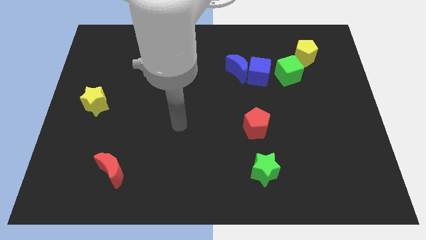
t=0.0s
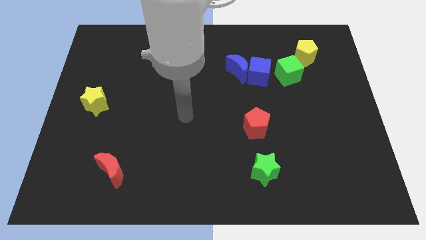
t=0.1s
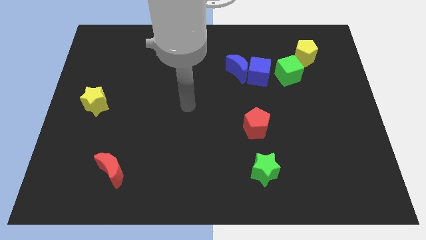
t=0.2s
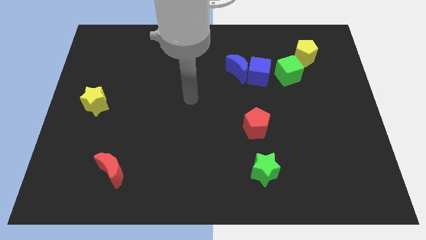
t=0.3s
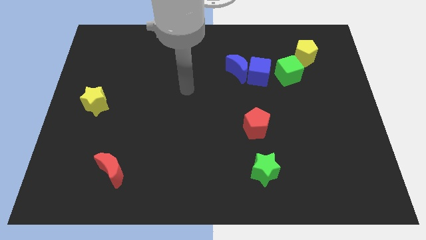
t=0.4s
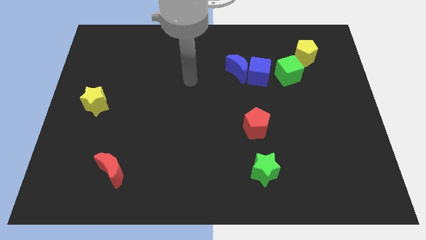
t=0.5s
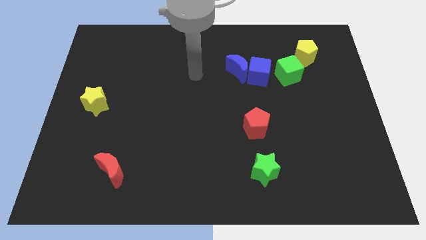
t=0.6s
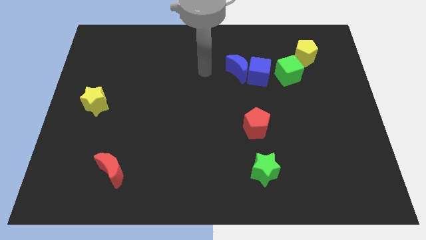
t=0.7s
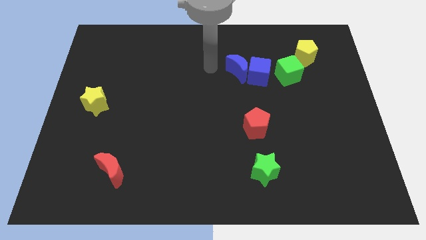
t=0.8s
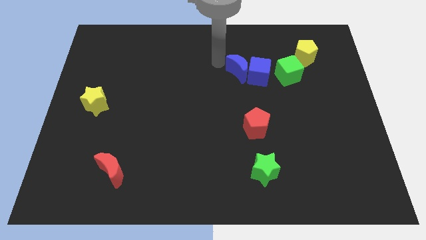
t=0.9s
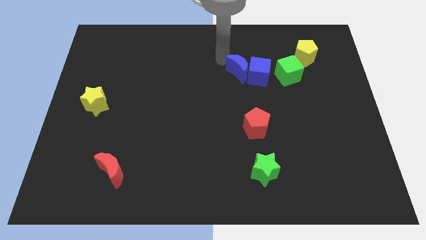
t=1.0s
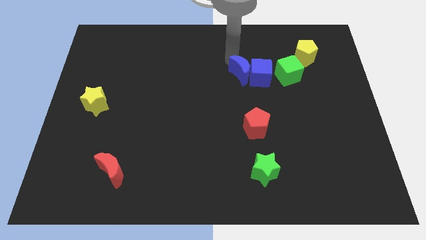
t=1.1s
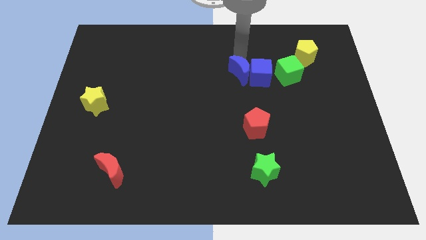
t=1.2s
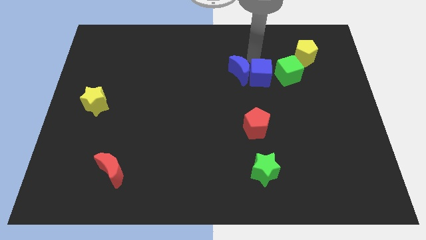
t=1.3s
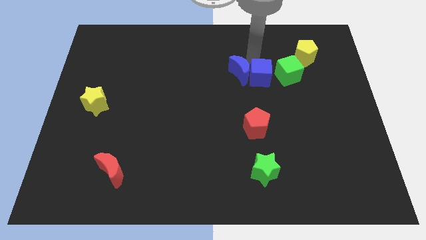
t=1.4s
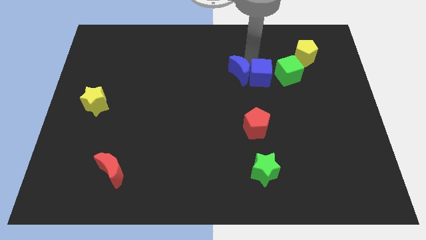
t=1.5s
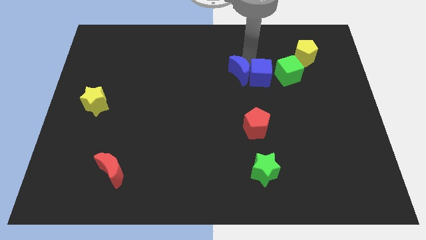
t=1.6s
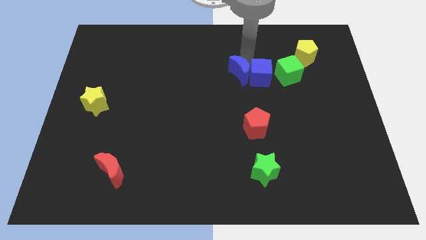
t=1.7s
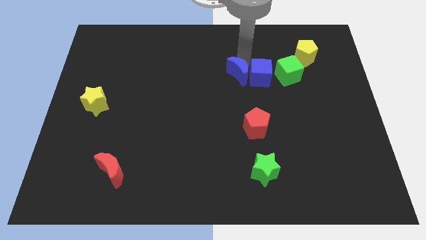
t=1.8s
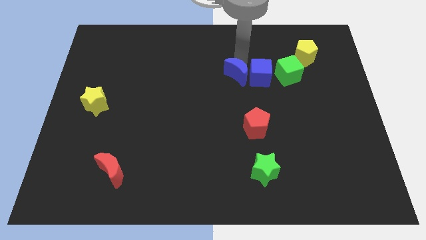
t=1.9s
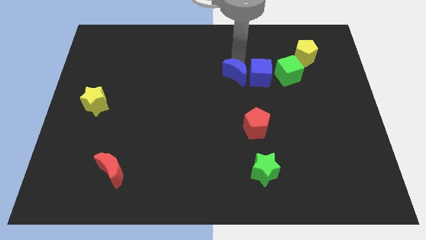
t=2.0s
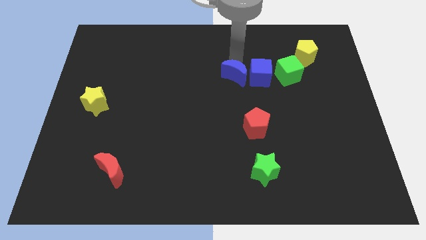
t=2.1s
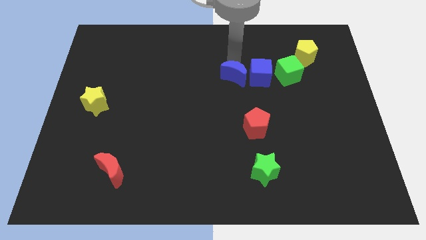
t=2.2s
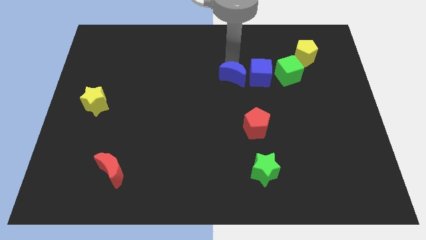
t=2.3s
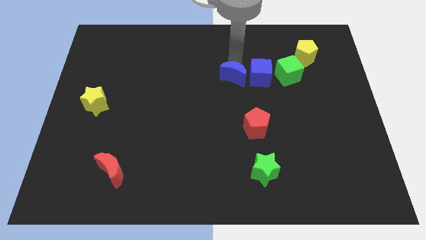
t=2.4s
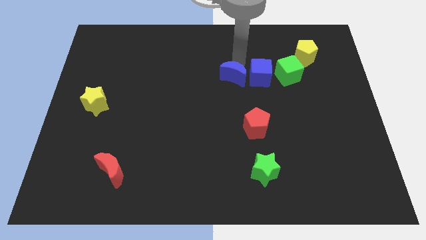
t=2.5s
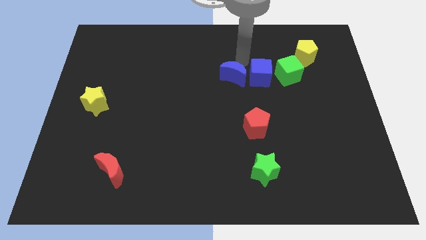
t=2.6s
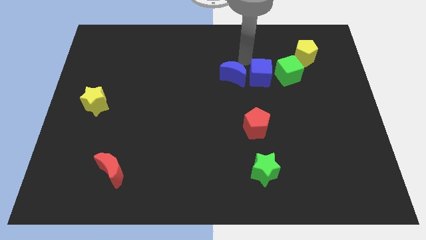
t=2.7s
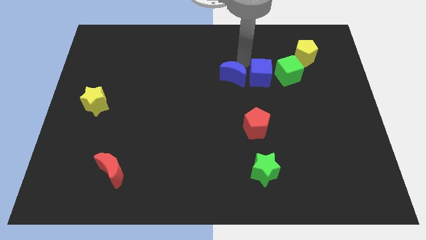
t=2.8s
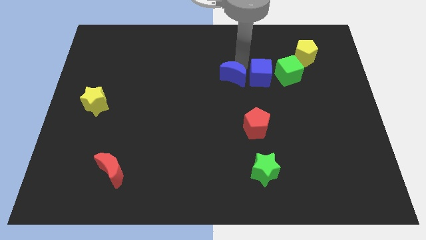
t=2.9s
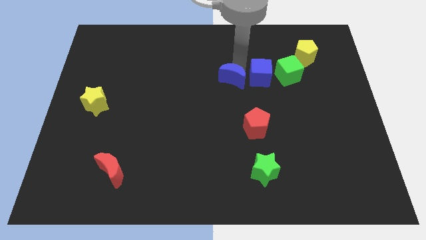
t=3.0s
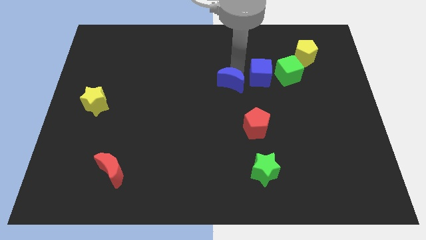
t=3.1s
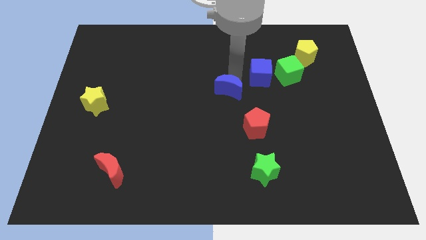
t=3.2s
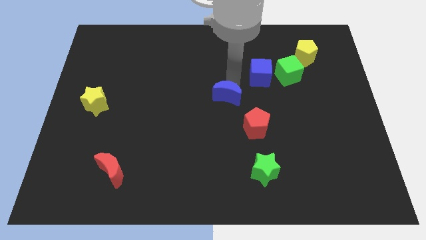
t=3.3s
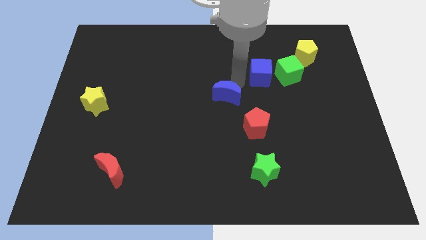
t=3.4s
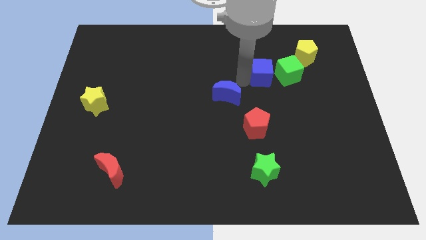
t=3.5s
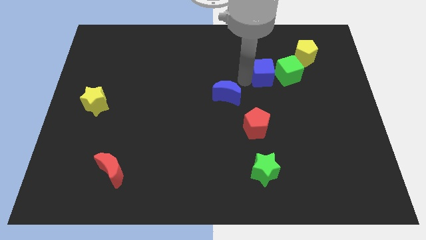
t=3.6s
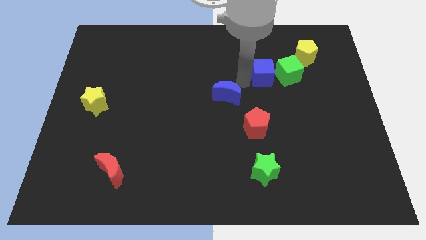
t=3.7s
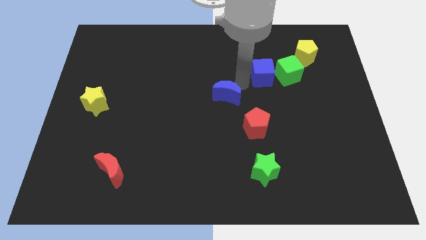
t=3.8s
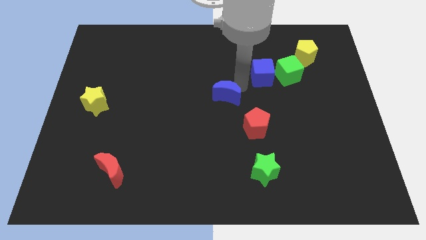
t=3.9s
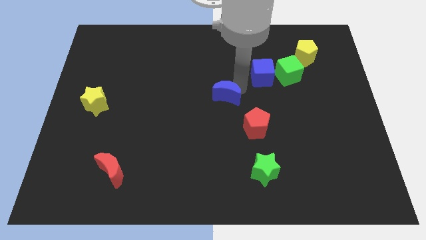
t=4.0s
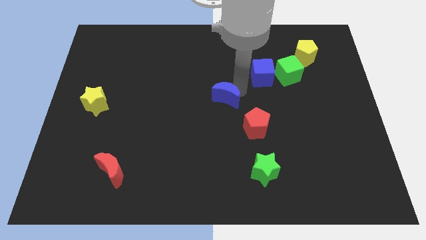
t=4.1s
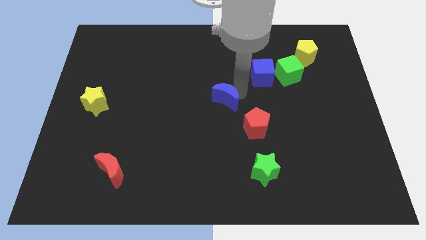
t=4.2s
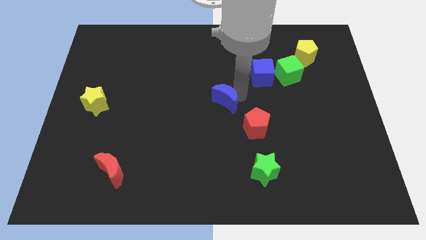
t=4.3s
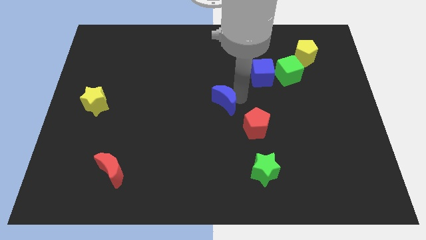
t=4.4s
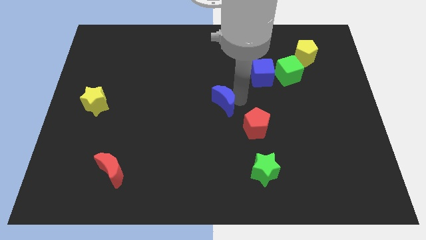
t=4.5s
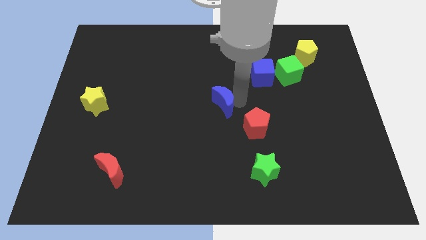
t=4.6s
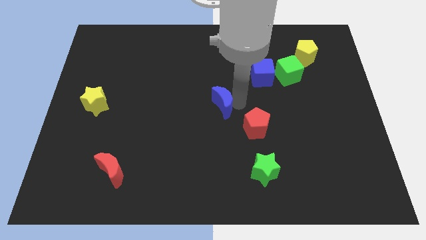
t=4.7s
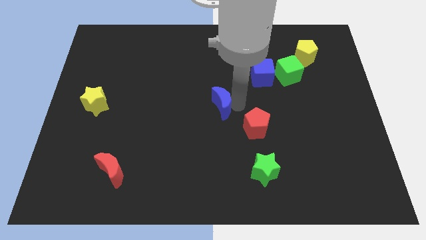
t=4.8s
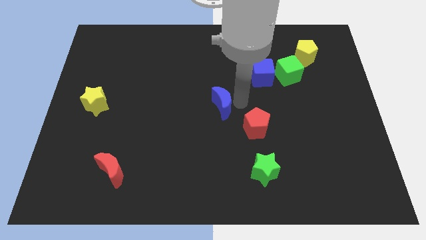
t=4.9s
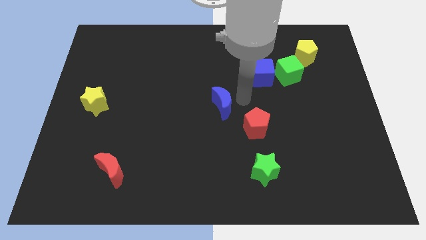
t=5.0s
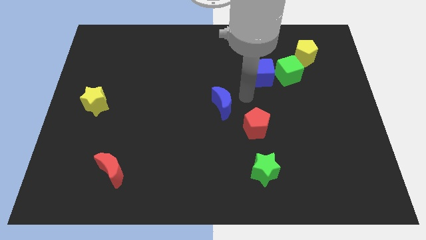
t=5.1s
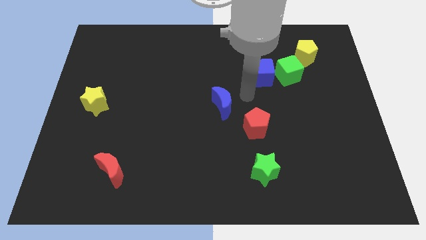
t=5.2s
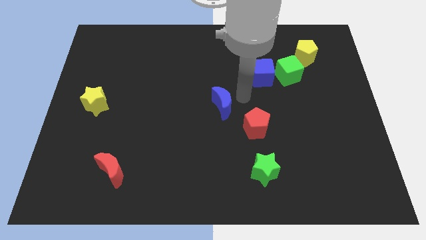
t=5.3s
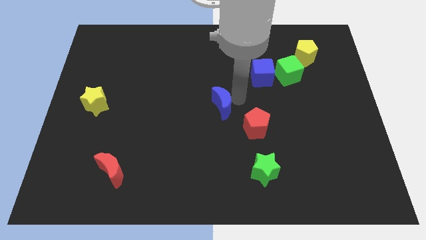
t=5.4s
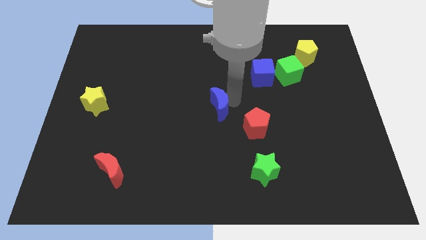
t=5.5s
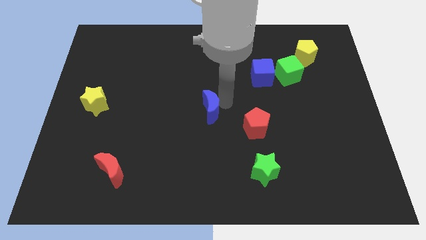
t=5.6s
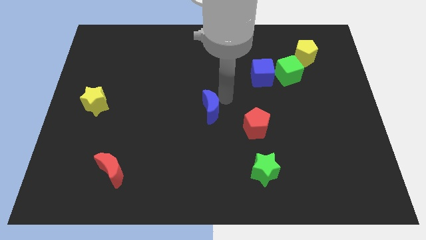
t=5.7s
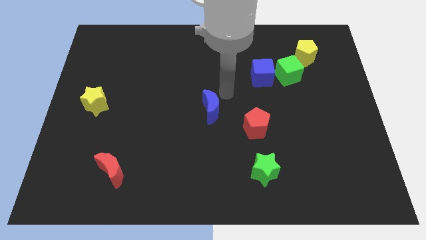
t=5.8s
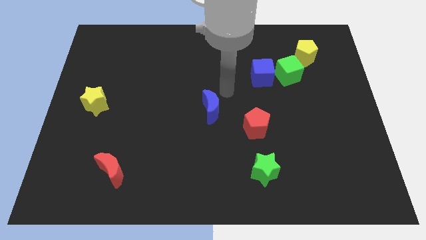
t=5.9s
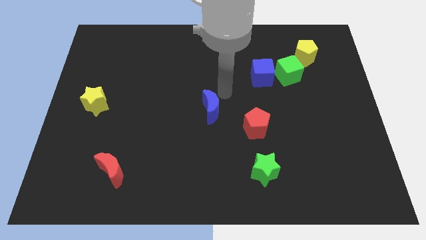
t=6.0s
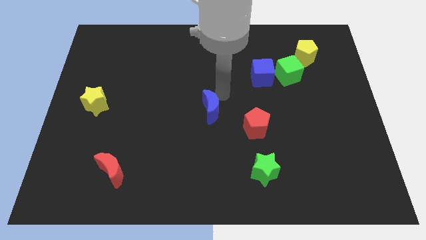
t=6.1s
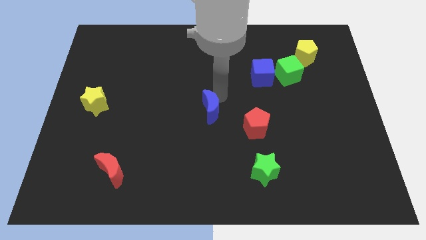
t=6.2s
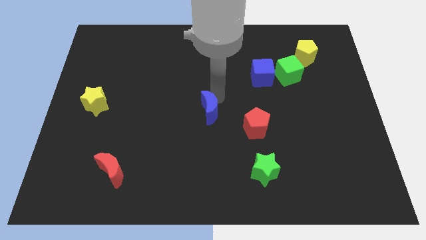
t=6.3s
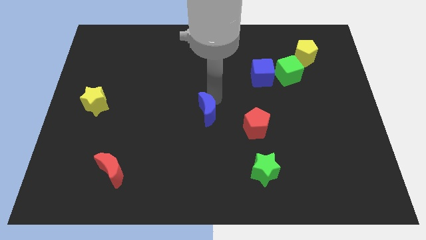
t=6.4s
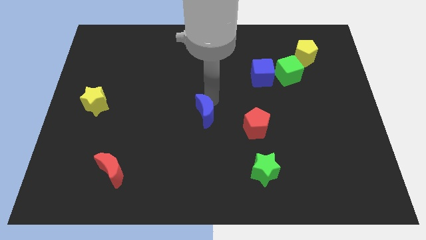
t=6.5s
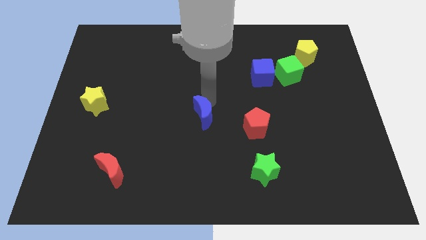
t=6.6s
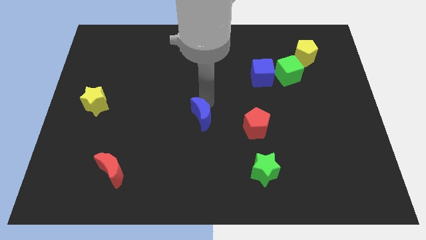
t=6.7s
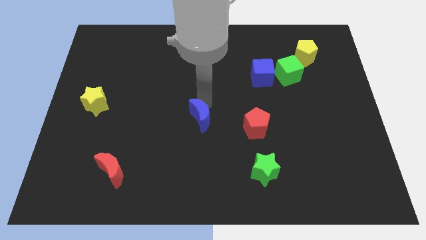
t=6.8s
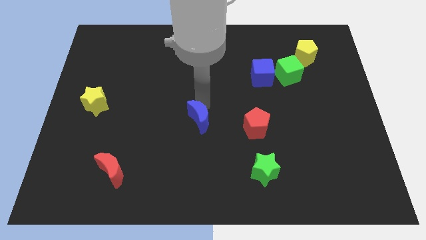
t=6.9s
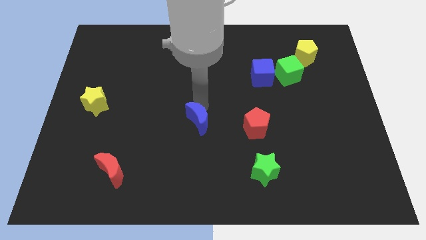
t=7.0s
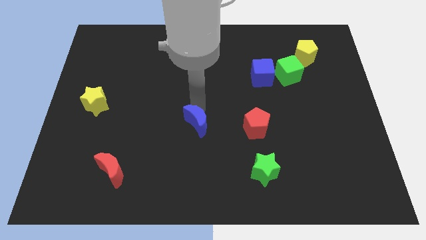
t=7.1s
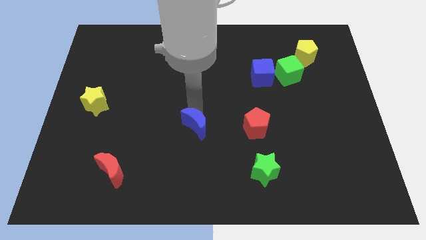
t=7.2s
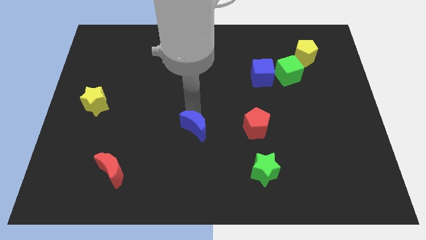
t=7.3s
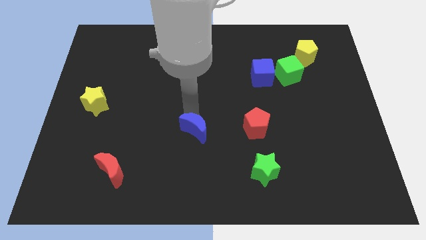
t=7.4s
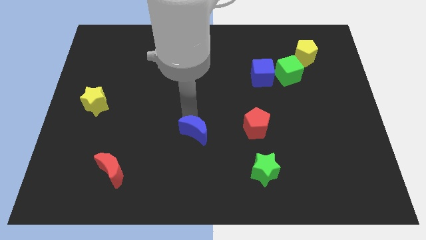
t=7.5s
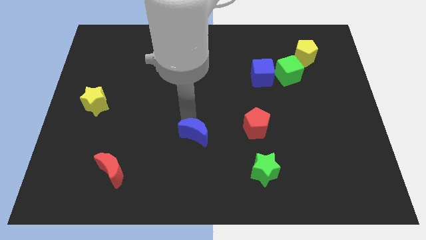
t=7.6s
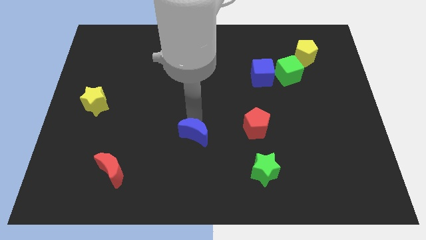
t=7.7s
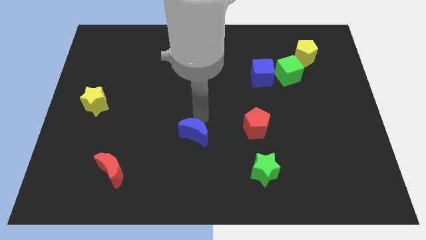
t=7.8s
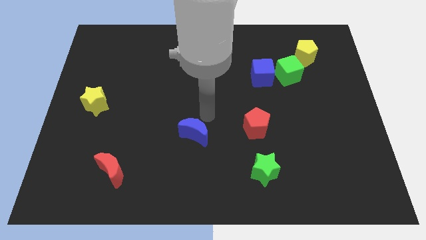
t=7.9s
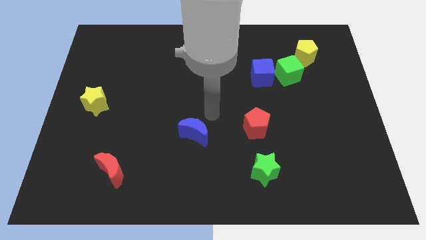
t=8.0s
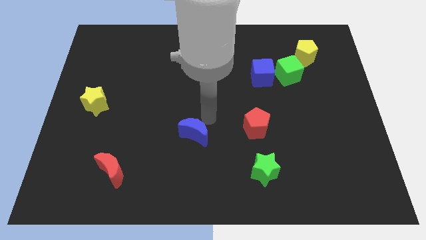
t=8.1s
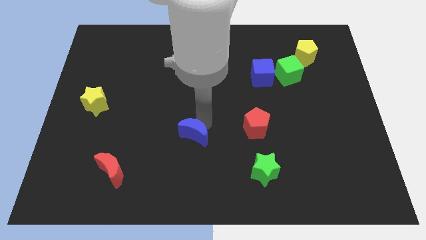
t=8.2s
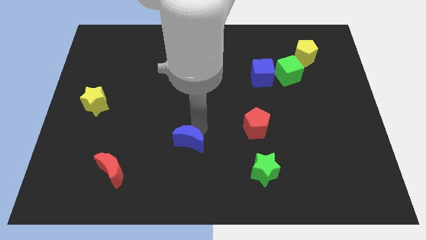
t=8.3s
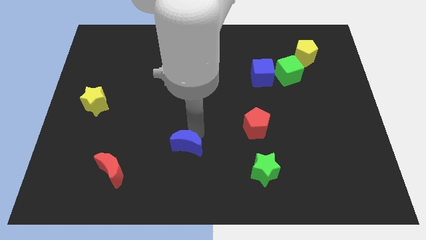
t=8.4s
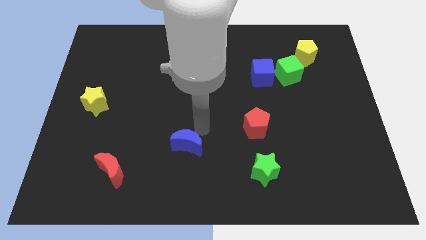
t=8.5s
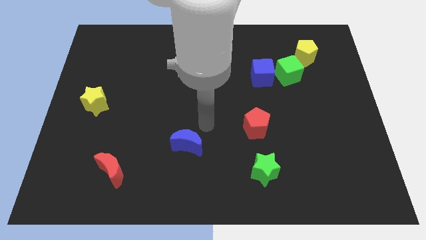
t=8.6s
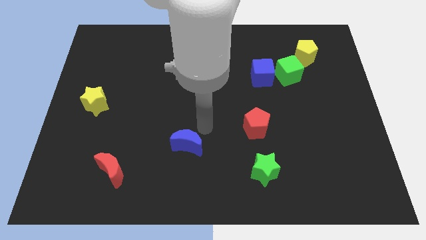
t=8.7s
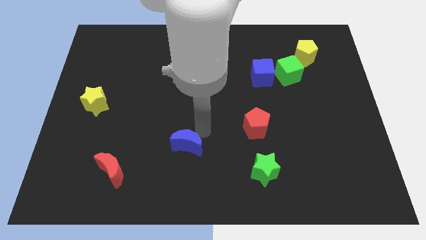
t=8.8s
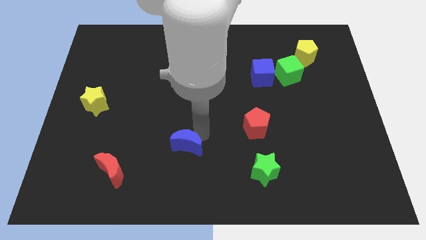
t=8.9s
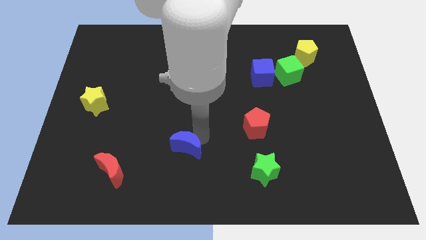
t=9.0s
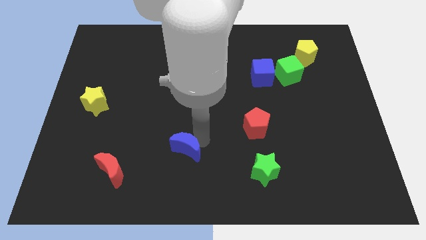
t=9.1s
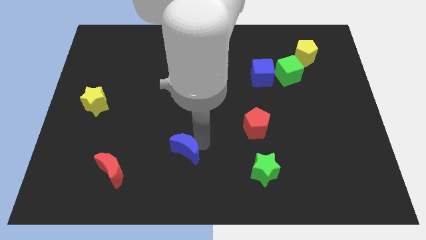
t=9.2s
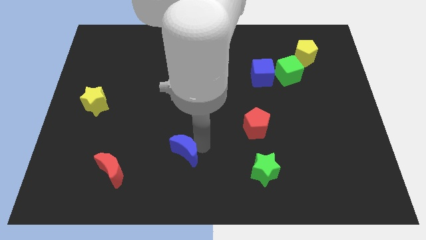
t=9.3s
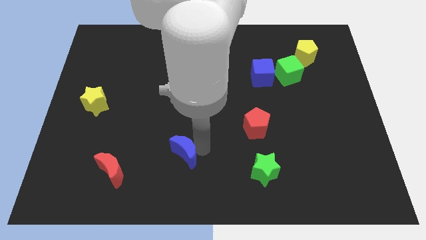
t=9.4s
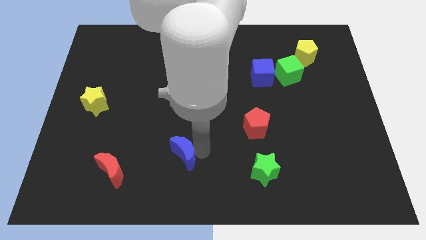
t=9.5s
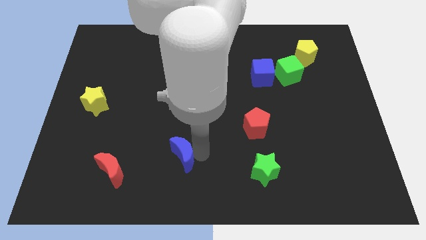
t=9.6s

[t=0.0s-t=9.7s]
slide the blue moon just right of the red moon
